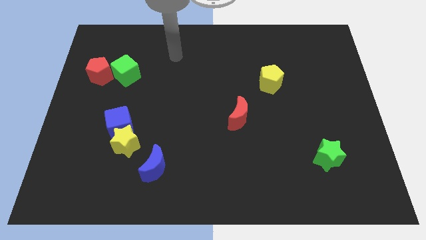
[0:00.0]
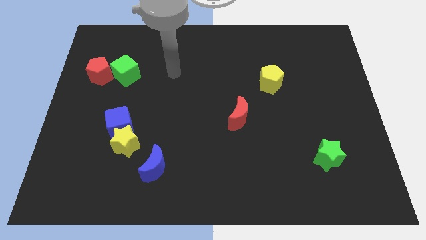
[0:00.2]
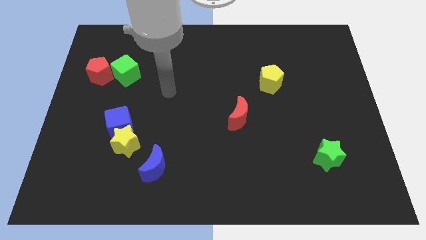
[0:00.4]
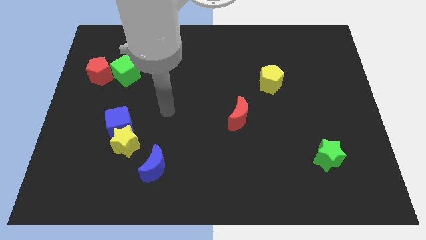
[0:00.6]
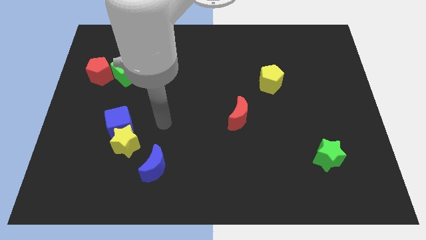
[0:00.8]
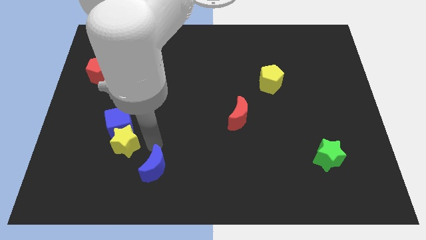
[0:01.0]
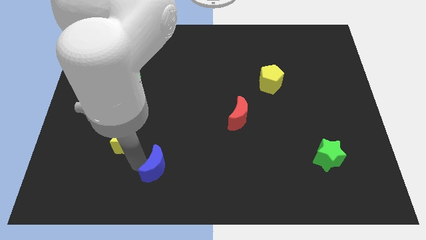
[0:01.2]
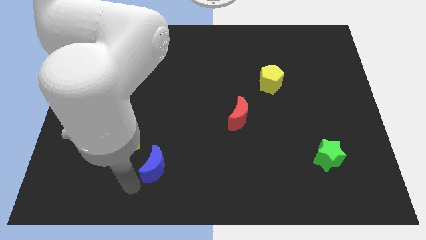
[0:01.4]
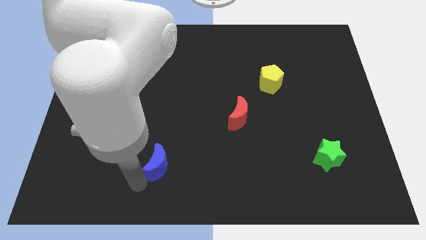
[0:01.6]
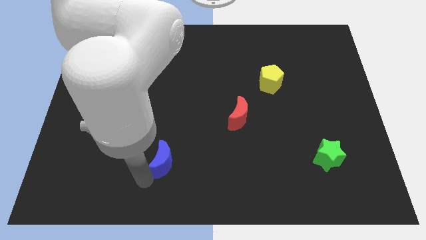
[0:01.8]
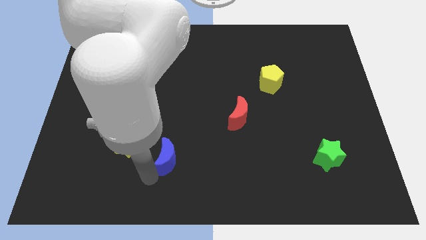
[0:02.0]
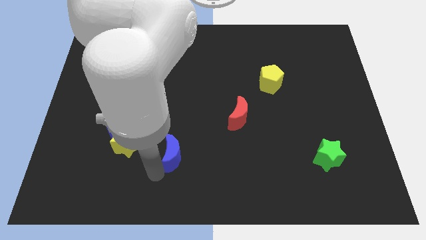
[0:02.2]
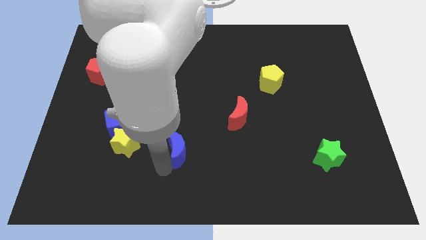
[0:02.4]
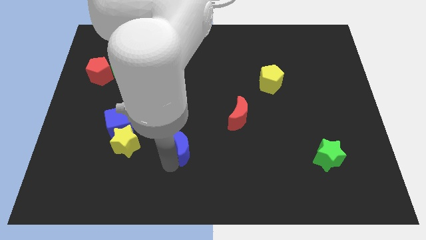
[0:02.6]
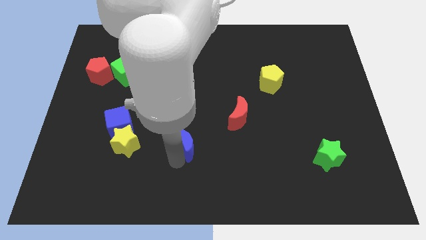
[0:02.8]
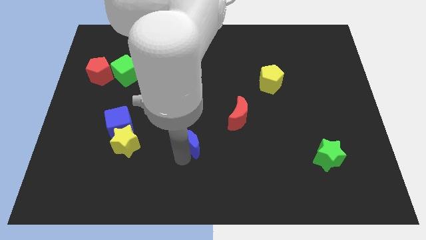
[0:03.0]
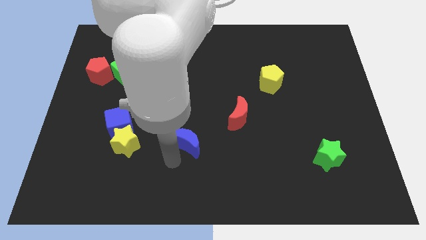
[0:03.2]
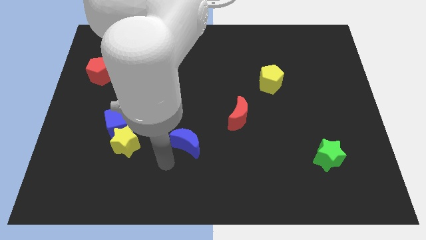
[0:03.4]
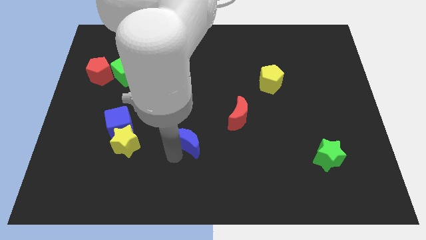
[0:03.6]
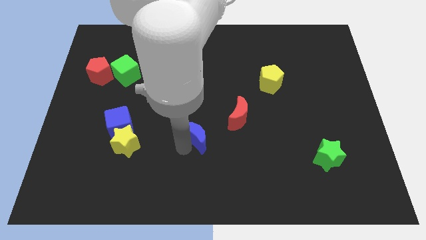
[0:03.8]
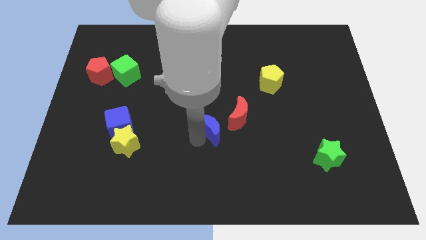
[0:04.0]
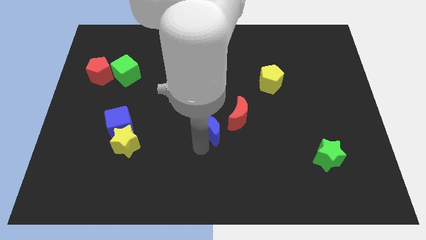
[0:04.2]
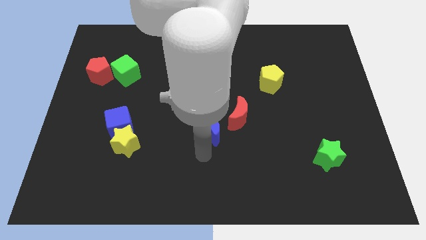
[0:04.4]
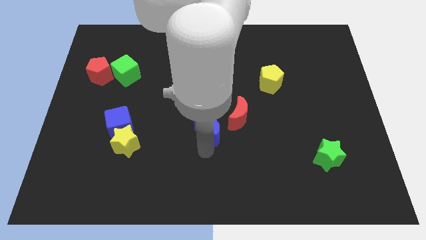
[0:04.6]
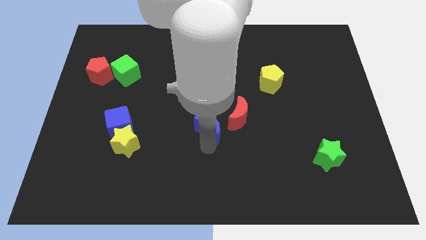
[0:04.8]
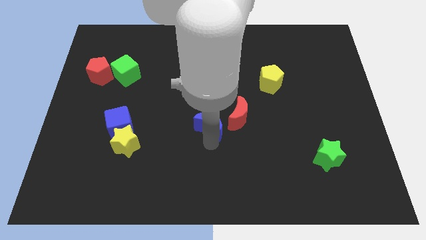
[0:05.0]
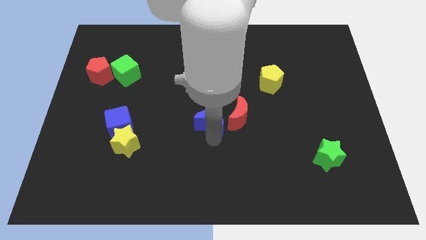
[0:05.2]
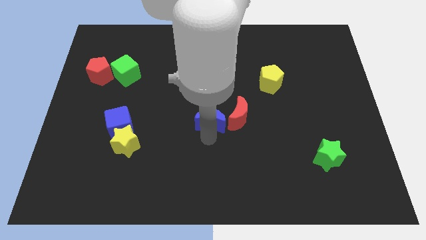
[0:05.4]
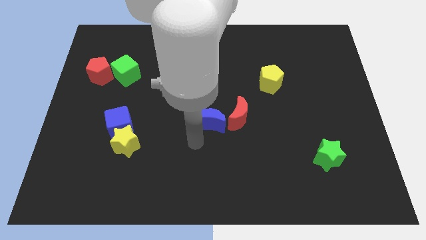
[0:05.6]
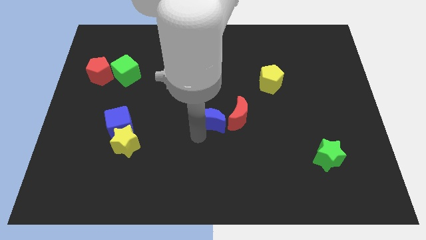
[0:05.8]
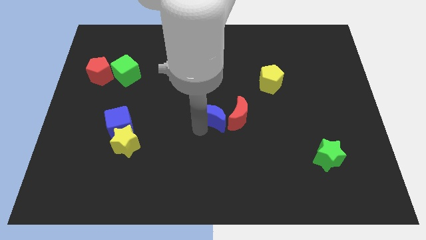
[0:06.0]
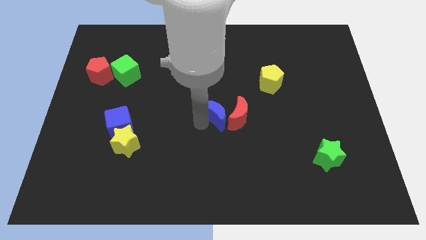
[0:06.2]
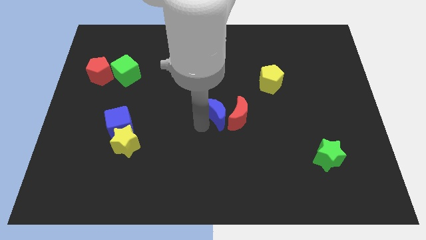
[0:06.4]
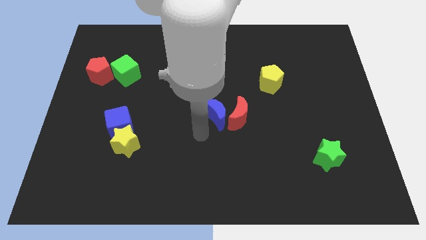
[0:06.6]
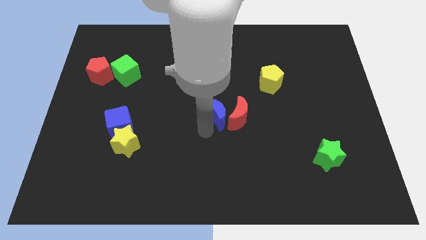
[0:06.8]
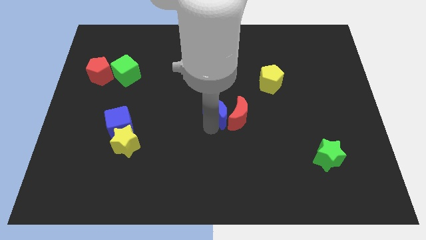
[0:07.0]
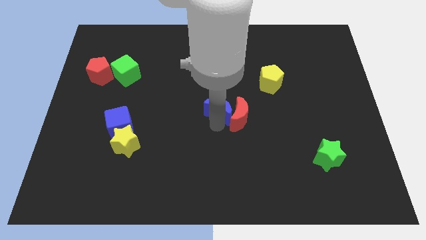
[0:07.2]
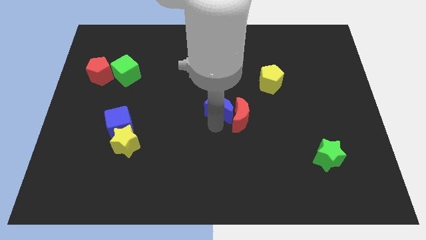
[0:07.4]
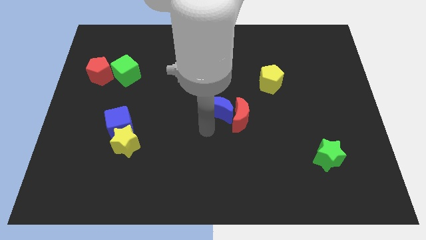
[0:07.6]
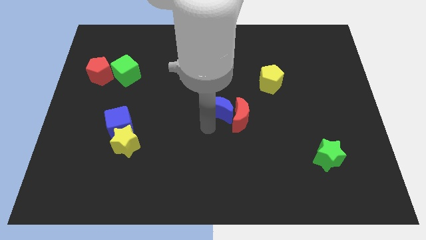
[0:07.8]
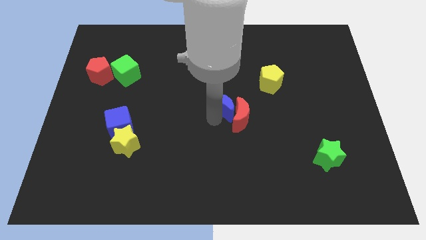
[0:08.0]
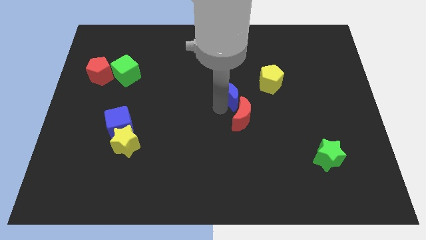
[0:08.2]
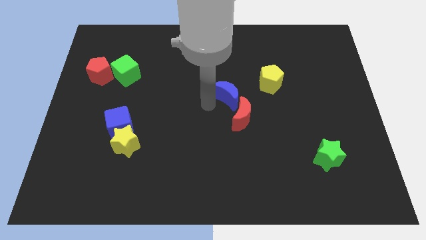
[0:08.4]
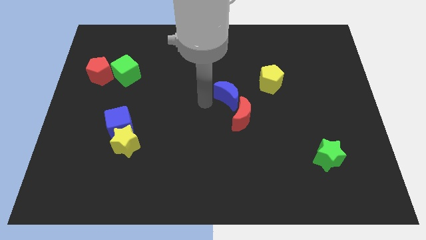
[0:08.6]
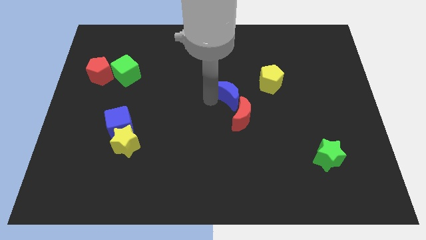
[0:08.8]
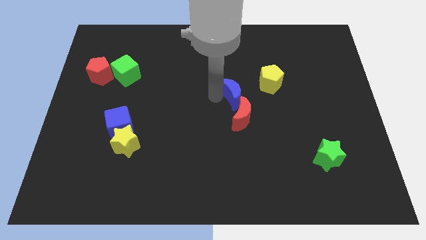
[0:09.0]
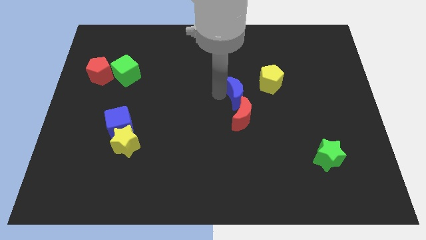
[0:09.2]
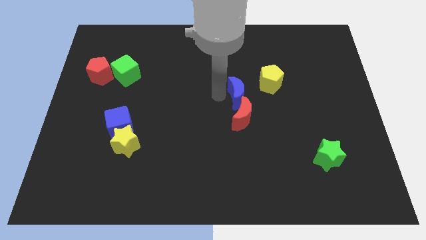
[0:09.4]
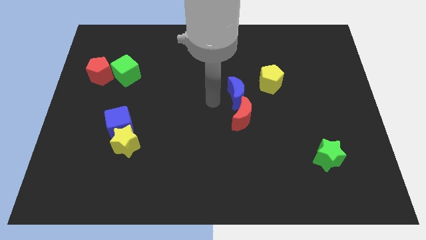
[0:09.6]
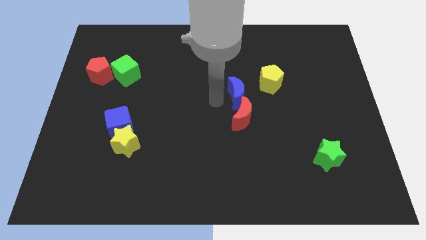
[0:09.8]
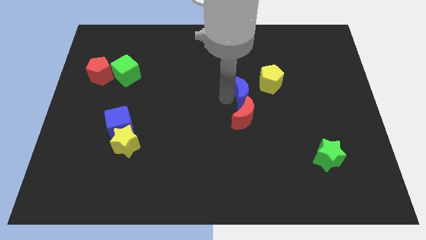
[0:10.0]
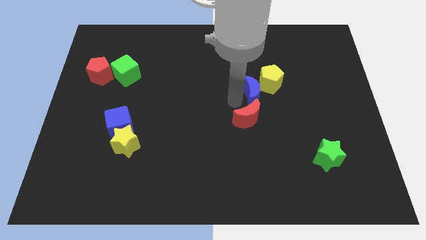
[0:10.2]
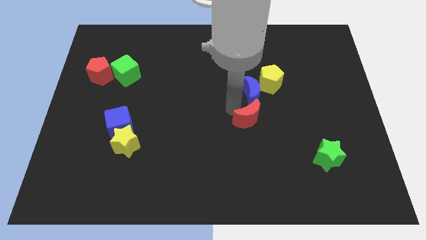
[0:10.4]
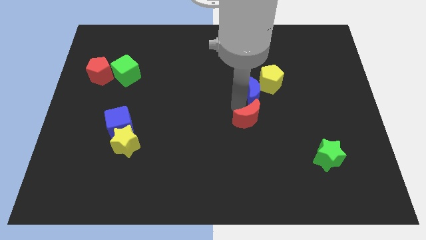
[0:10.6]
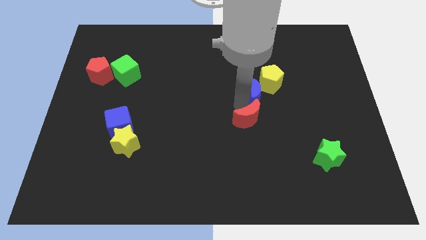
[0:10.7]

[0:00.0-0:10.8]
put the blue moon close to the yellow pentagon

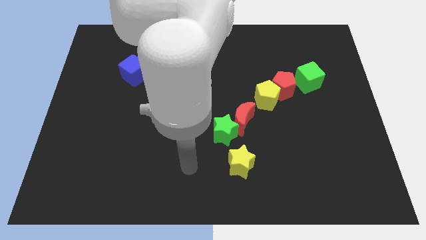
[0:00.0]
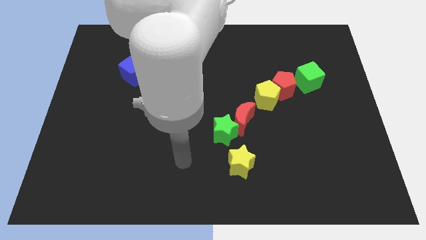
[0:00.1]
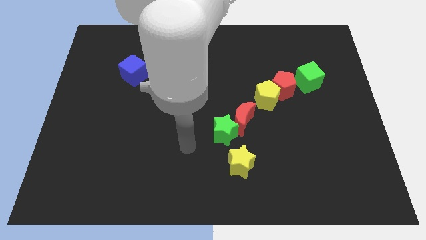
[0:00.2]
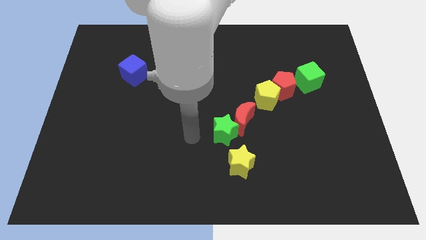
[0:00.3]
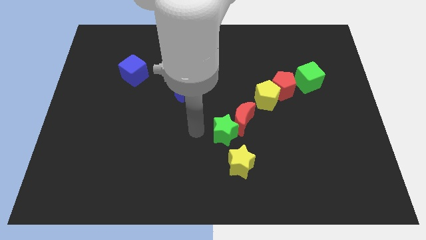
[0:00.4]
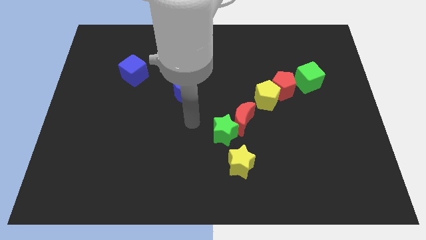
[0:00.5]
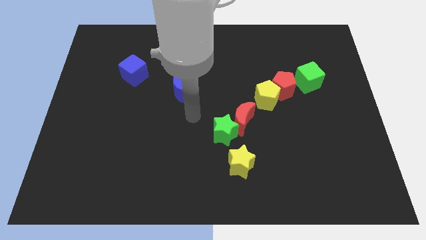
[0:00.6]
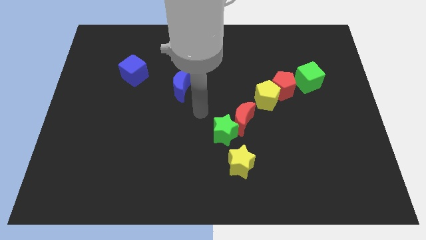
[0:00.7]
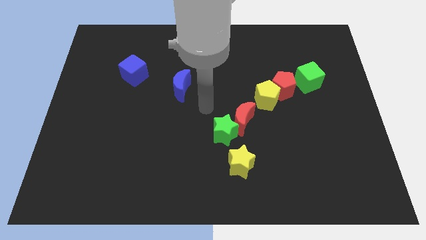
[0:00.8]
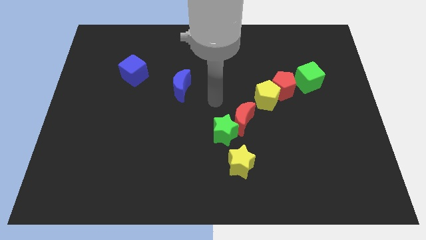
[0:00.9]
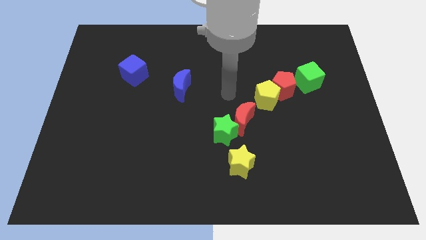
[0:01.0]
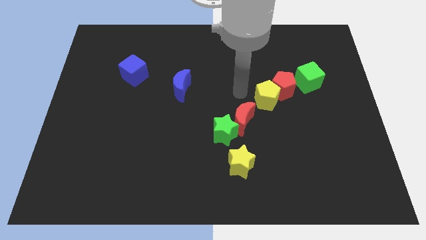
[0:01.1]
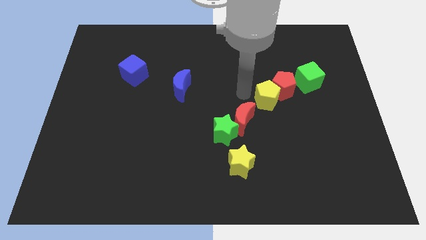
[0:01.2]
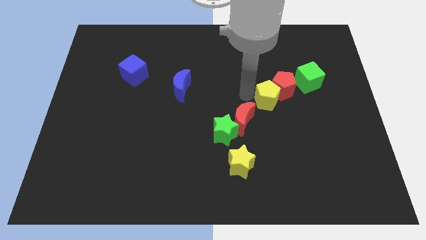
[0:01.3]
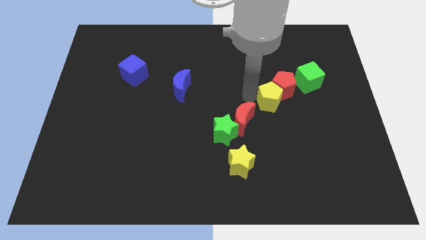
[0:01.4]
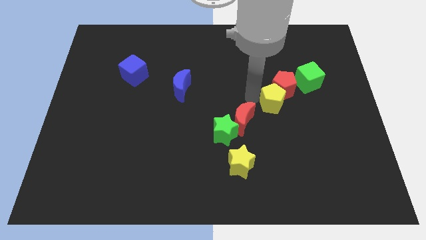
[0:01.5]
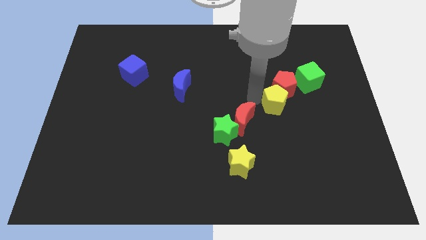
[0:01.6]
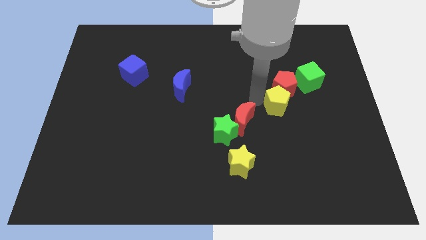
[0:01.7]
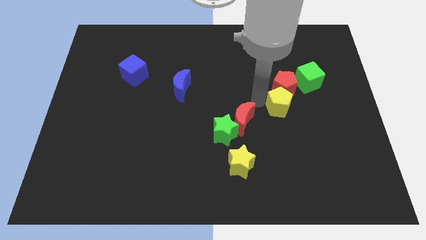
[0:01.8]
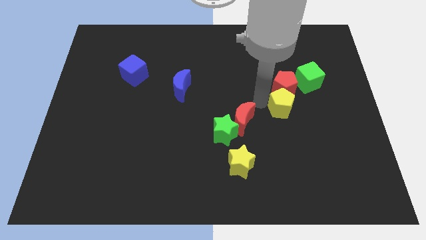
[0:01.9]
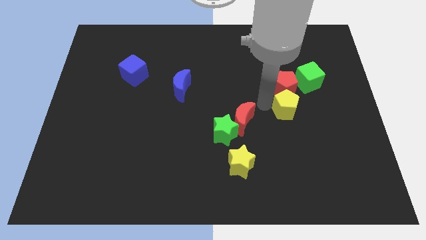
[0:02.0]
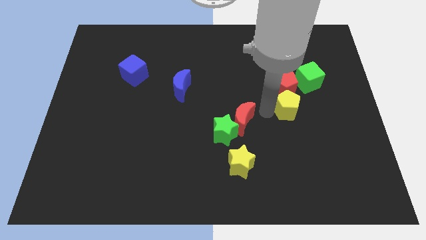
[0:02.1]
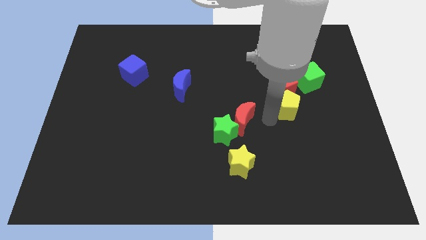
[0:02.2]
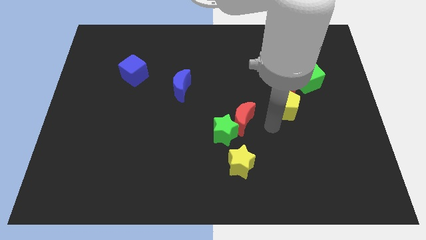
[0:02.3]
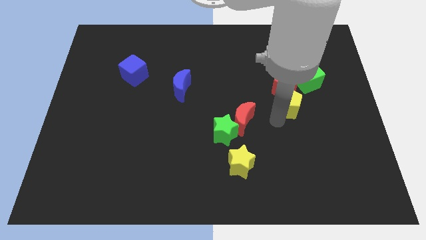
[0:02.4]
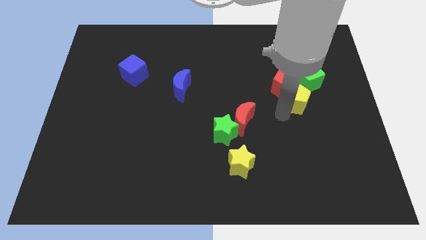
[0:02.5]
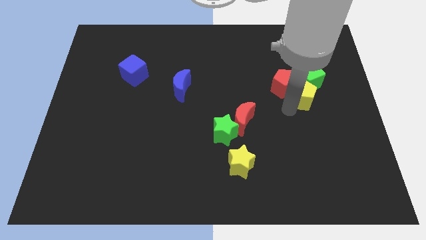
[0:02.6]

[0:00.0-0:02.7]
put the yellow pentagon close to the green cube
